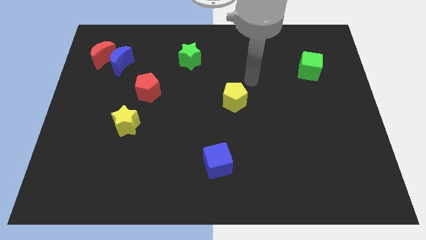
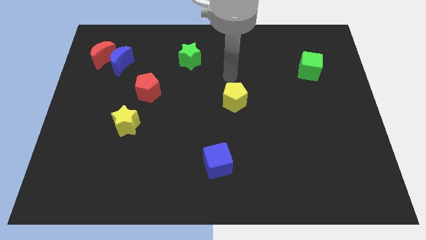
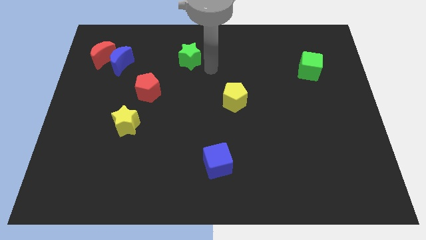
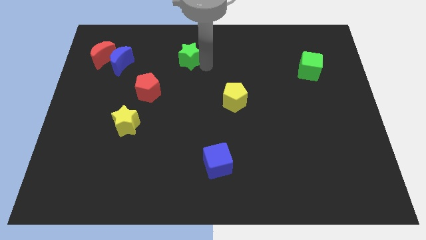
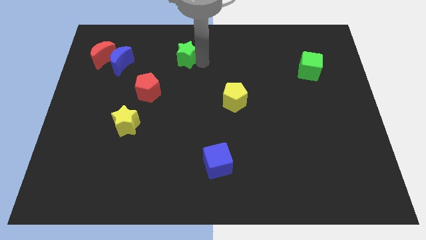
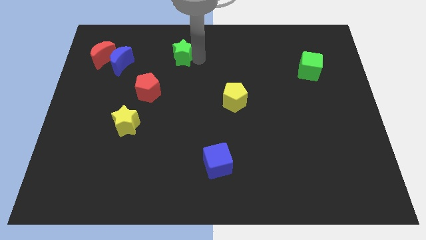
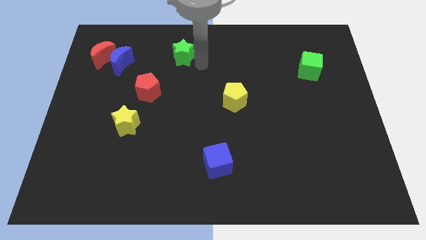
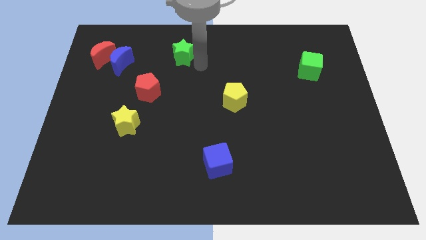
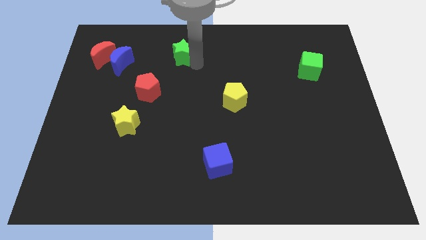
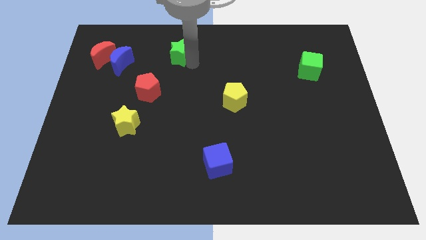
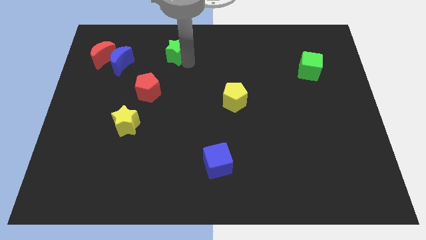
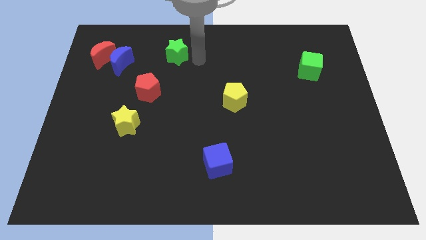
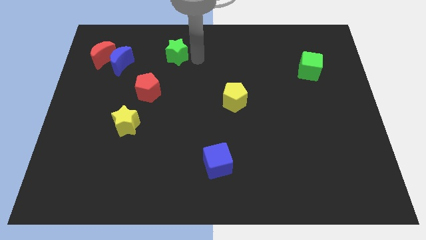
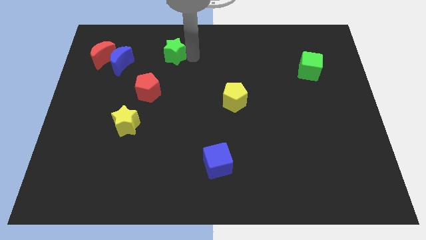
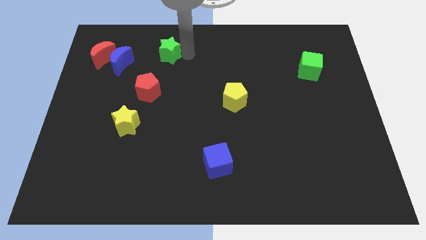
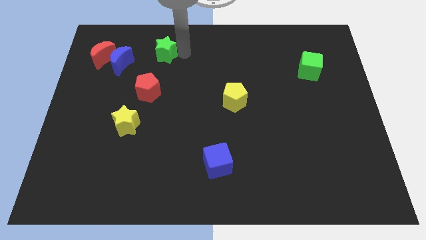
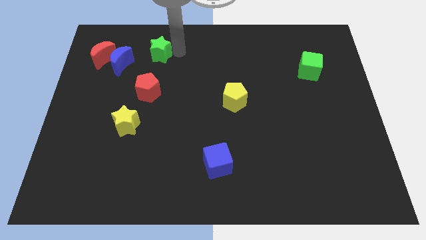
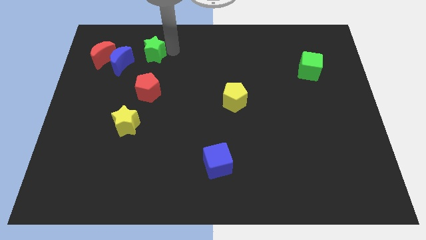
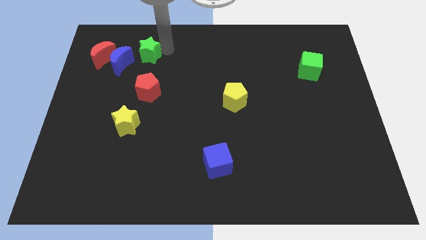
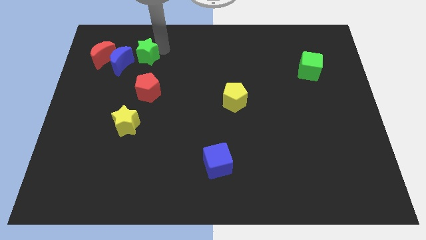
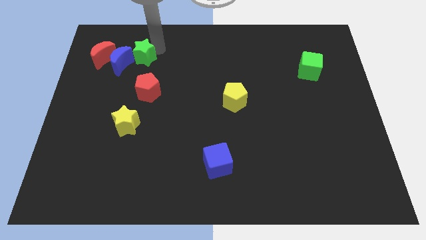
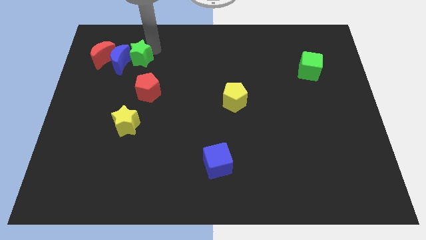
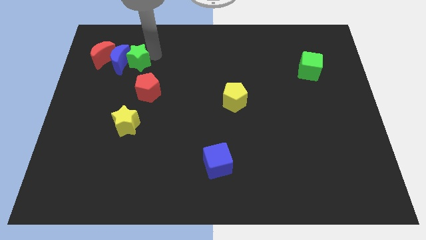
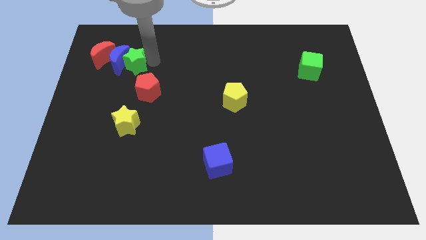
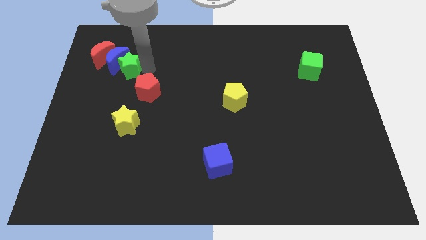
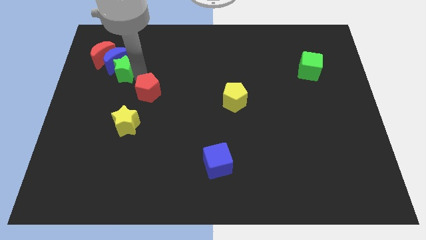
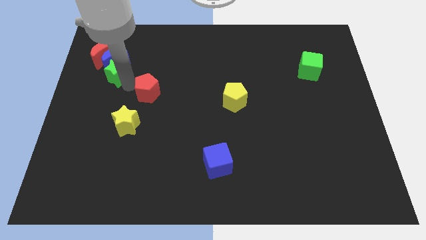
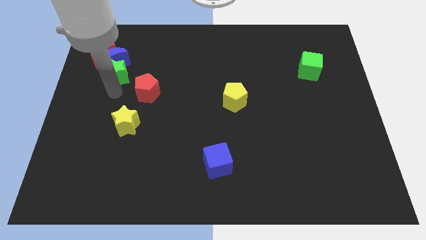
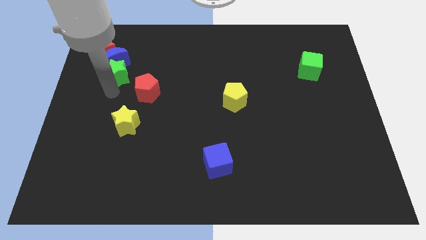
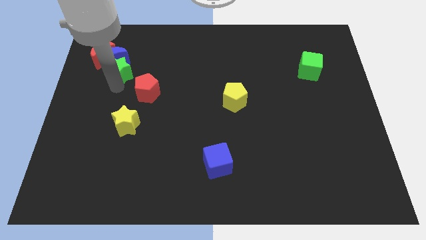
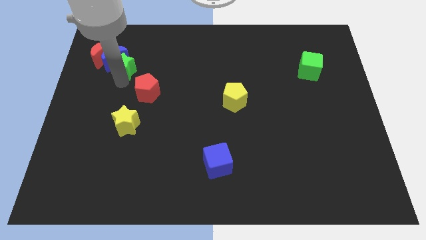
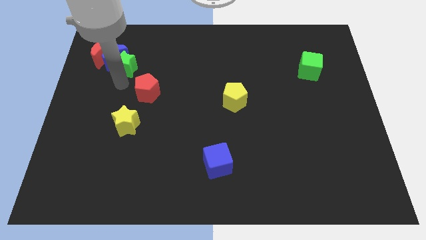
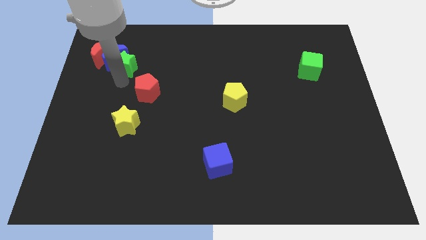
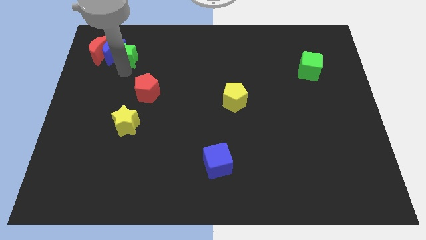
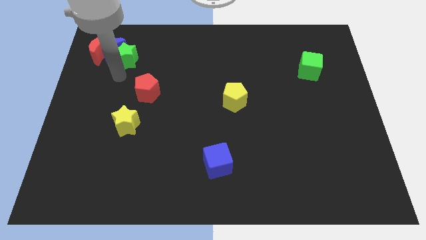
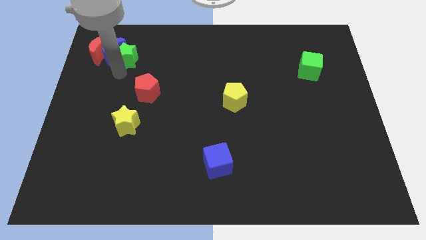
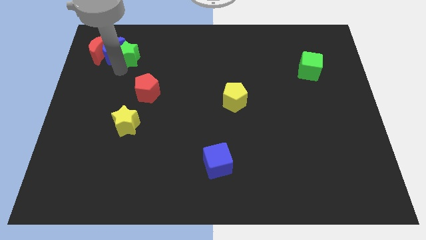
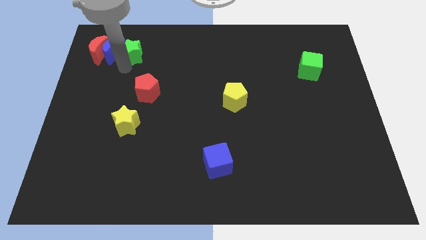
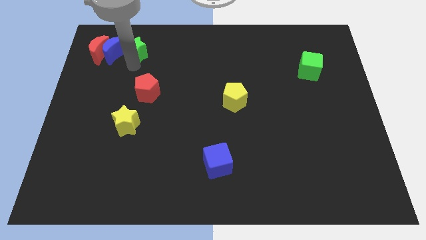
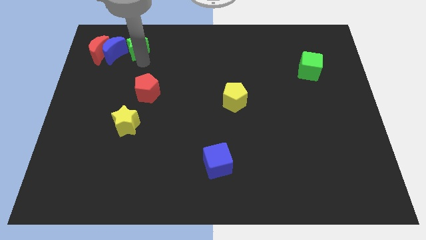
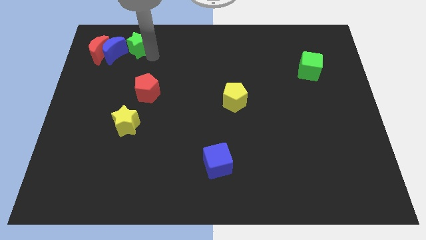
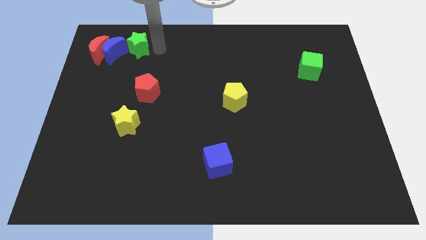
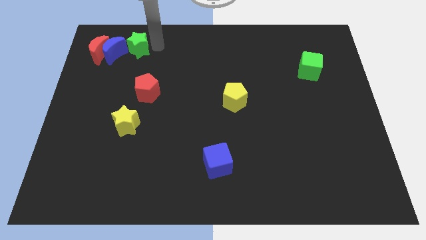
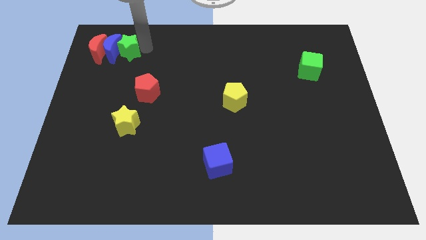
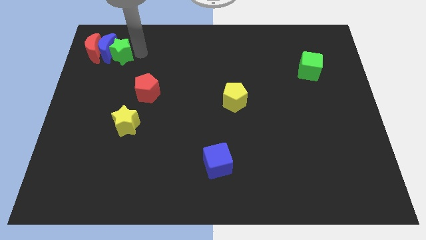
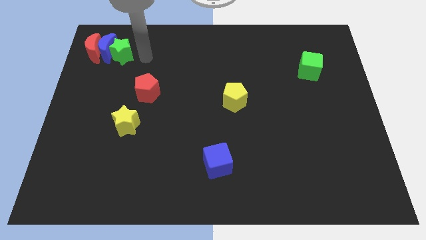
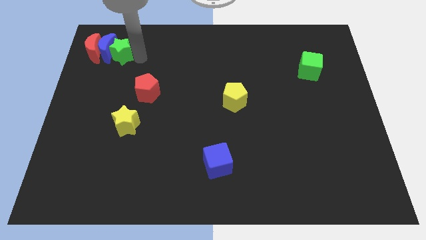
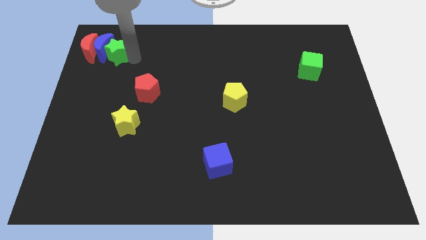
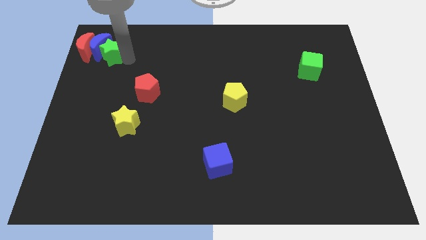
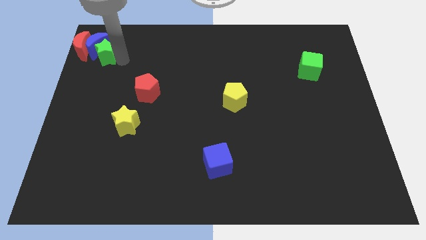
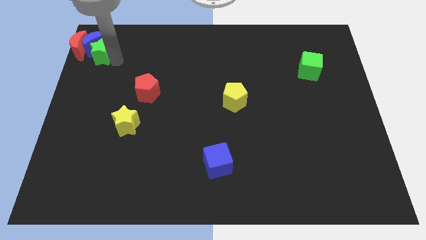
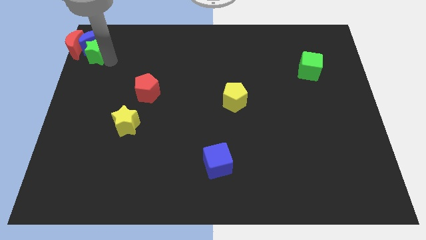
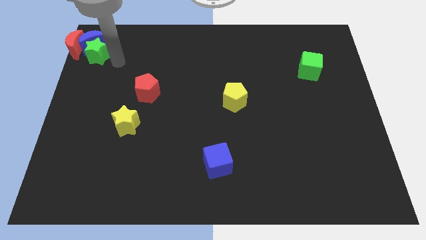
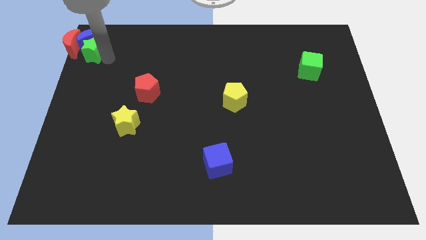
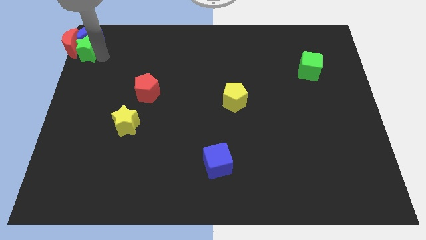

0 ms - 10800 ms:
put the green star to the red moon

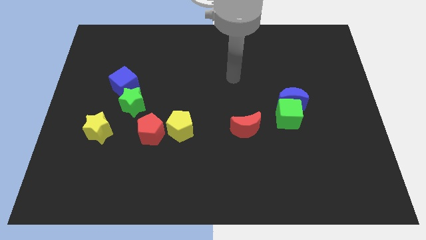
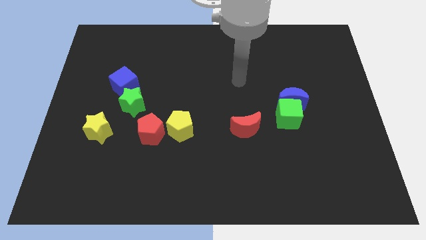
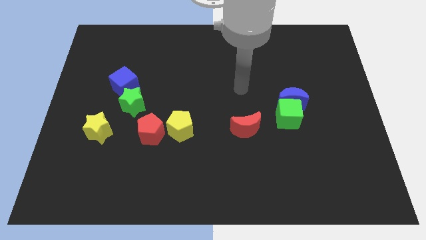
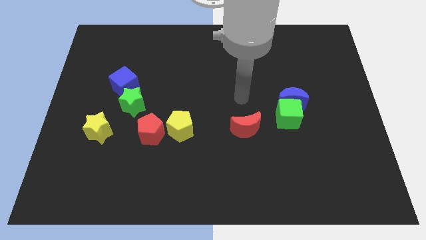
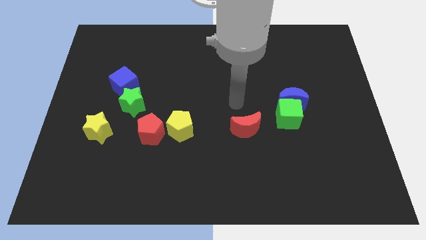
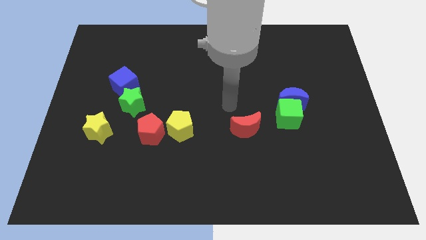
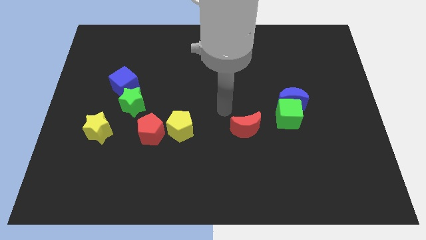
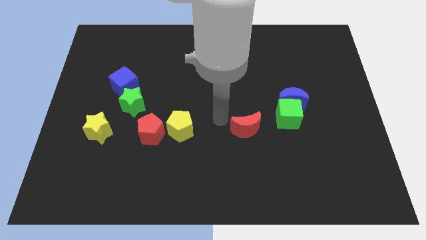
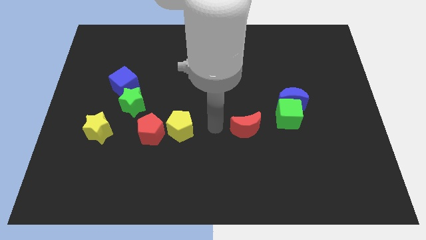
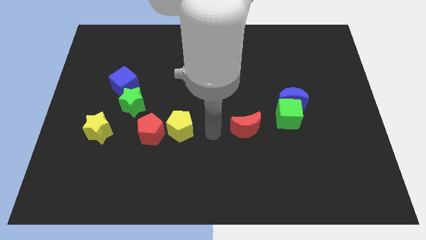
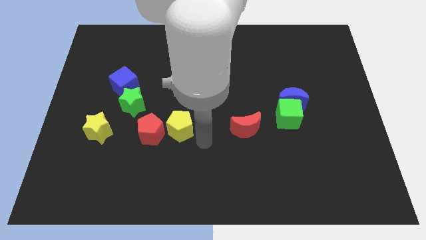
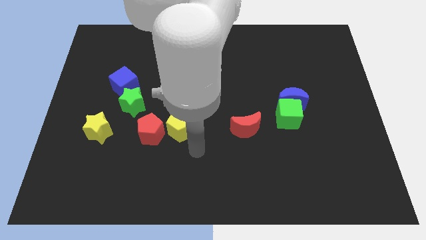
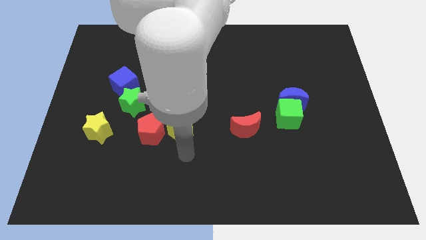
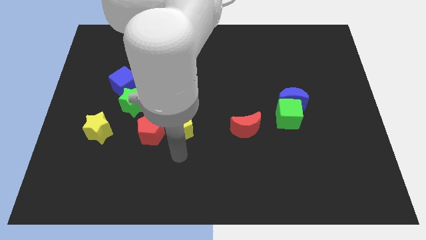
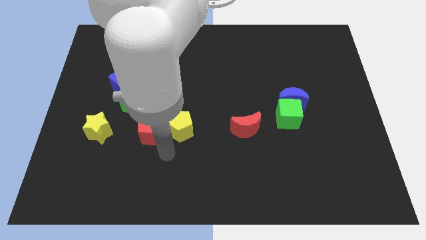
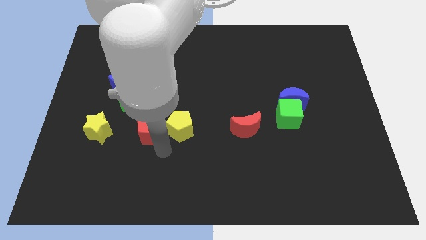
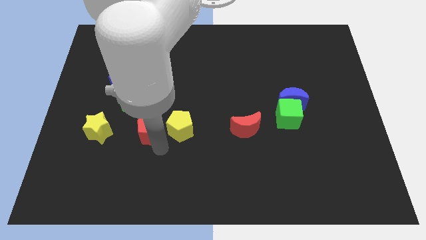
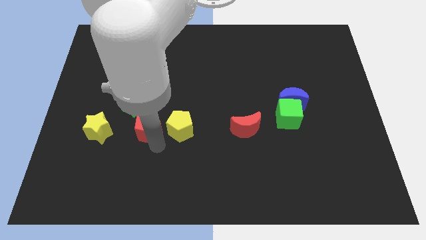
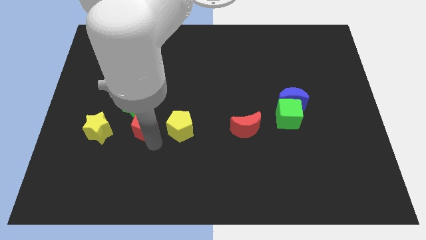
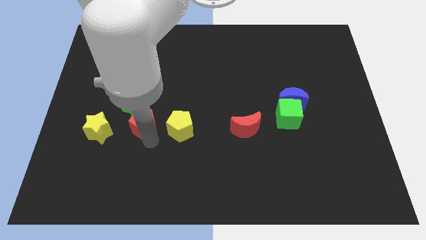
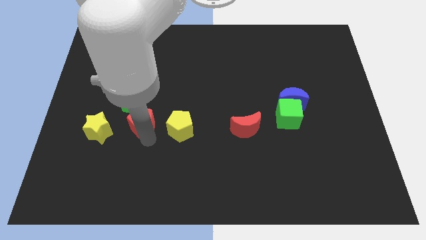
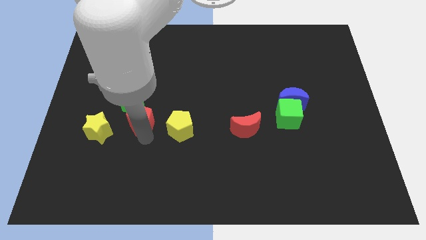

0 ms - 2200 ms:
move the red pentagon towards the green star
